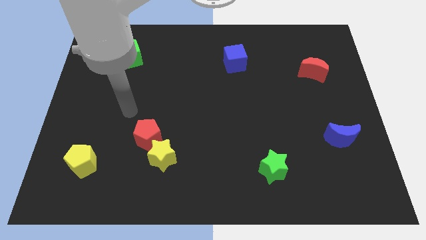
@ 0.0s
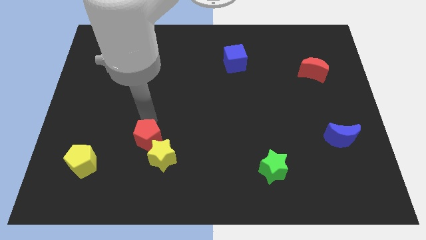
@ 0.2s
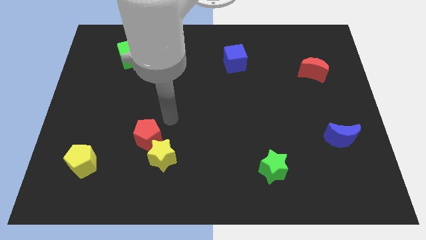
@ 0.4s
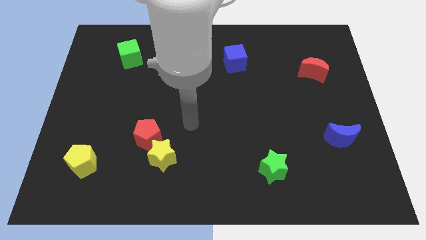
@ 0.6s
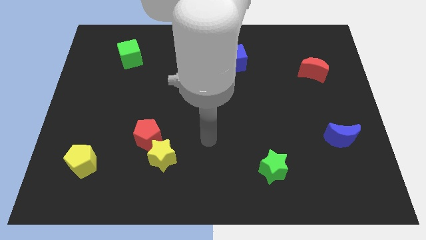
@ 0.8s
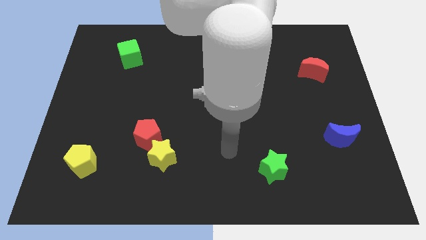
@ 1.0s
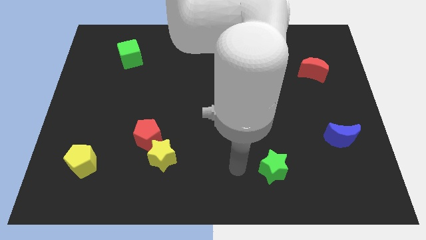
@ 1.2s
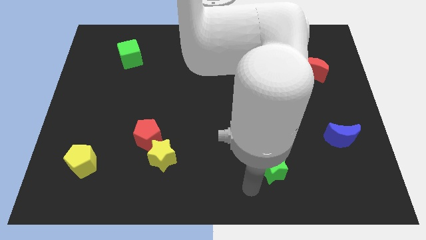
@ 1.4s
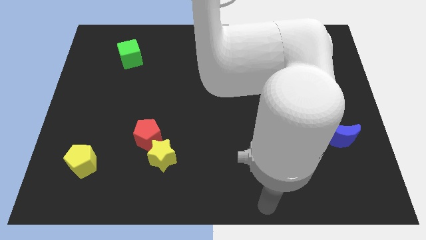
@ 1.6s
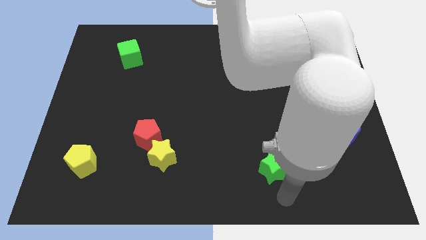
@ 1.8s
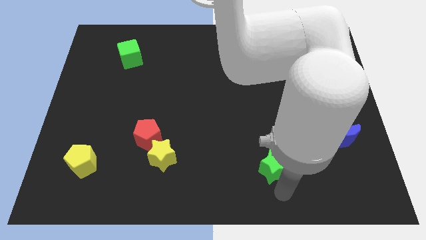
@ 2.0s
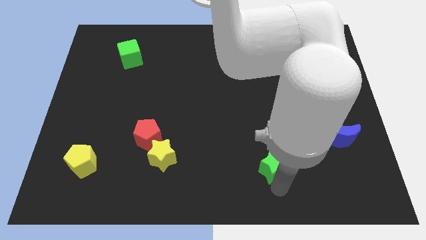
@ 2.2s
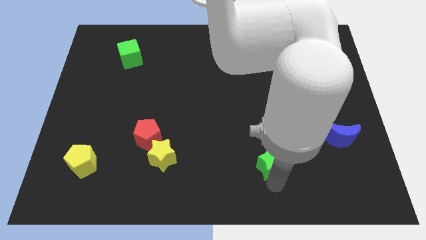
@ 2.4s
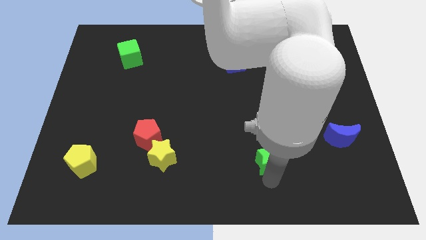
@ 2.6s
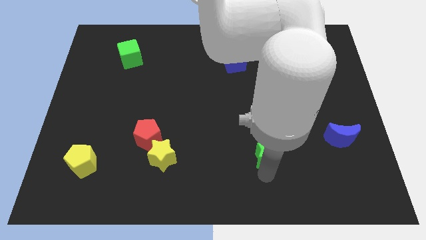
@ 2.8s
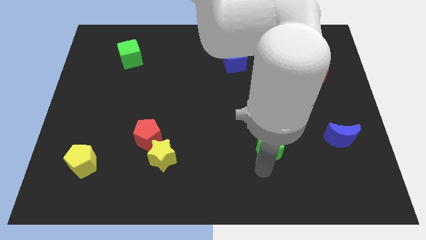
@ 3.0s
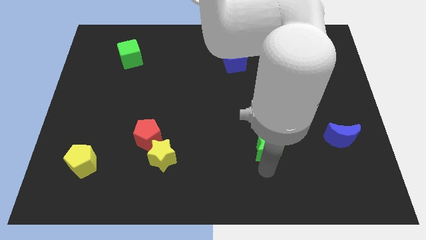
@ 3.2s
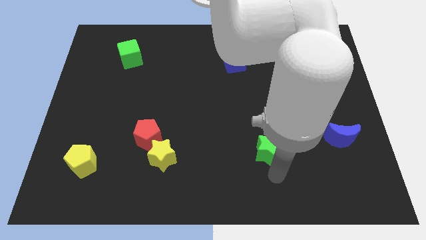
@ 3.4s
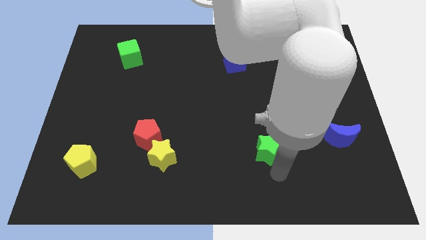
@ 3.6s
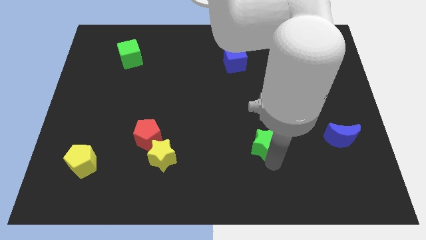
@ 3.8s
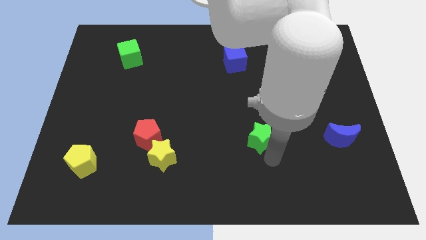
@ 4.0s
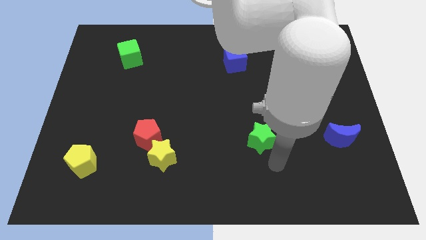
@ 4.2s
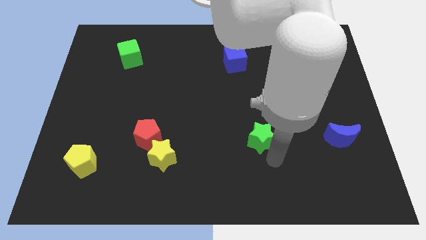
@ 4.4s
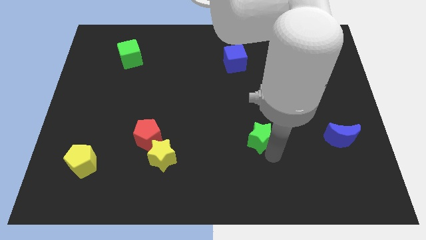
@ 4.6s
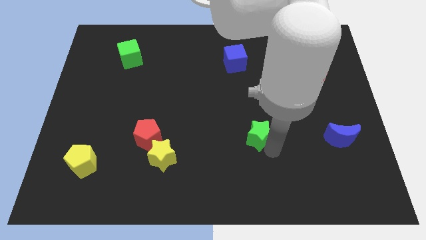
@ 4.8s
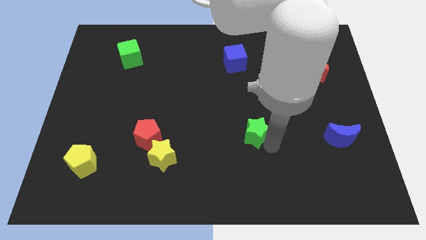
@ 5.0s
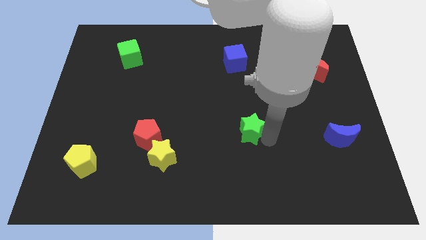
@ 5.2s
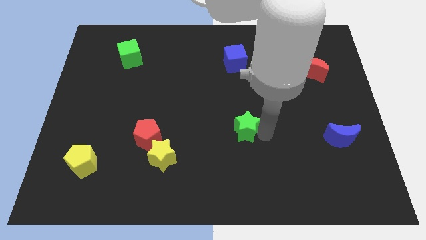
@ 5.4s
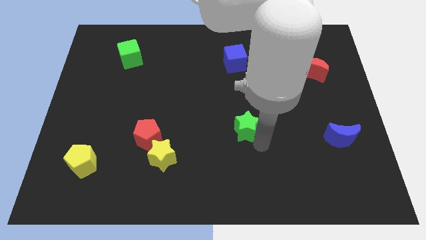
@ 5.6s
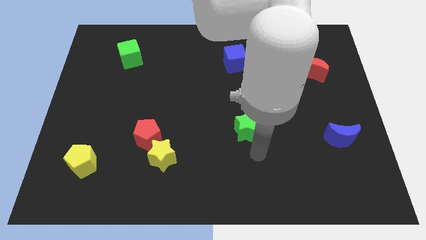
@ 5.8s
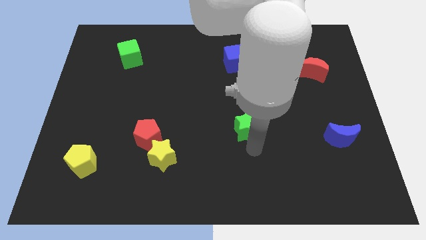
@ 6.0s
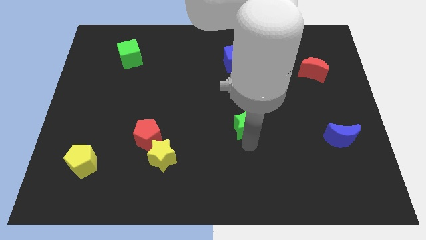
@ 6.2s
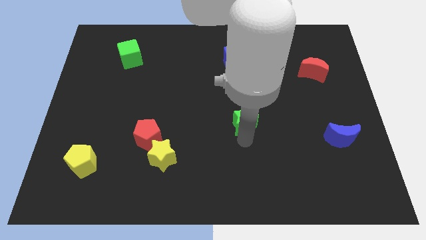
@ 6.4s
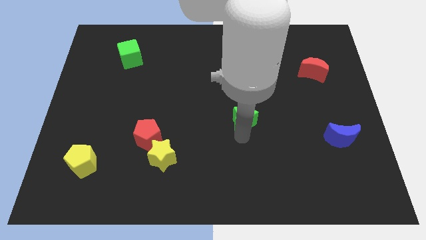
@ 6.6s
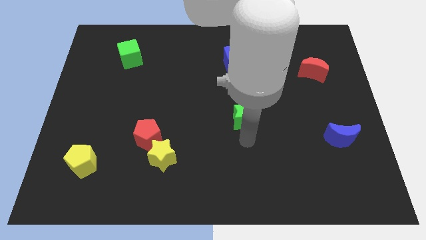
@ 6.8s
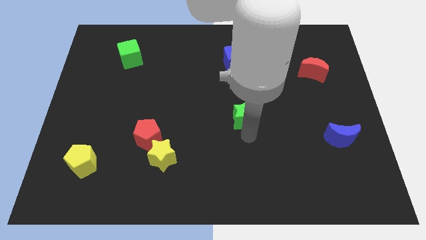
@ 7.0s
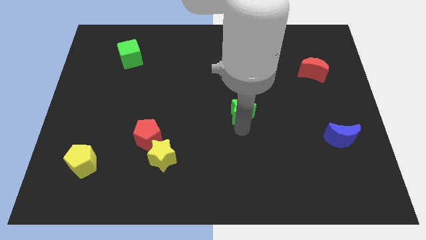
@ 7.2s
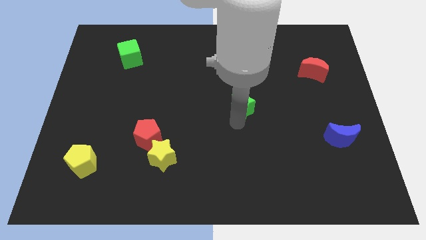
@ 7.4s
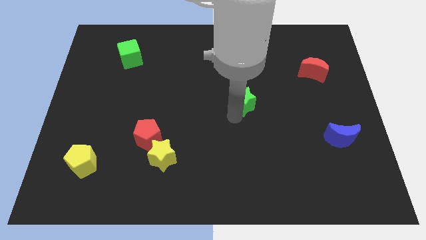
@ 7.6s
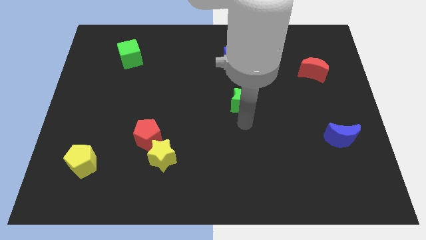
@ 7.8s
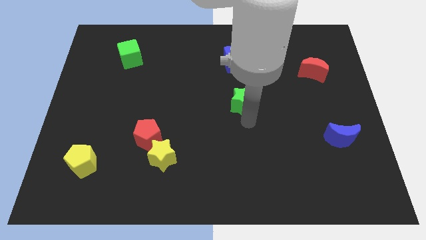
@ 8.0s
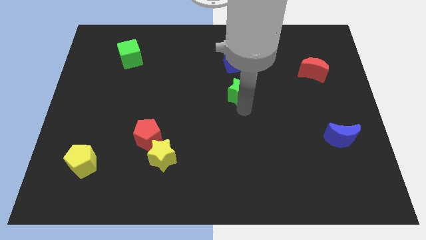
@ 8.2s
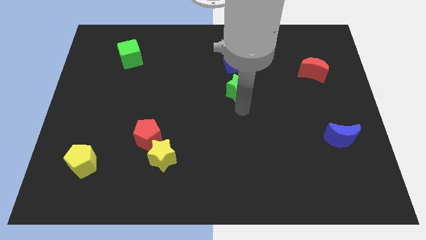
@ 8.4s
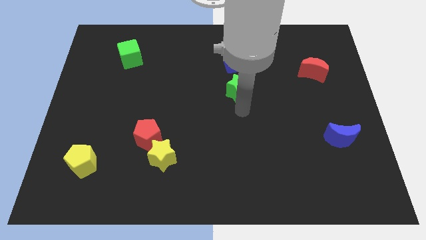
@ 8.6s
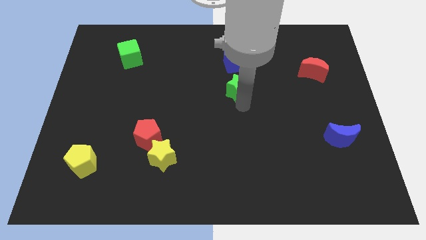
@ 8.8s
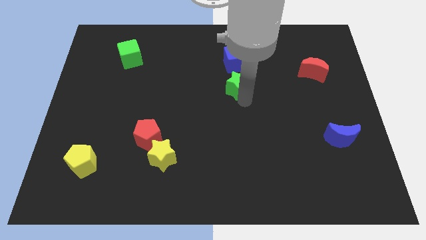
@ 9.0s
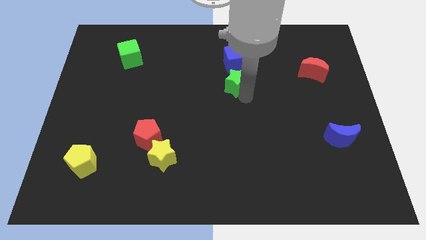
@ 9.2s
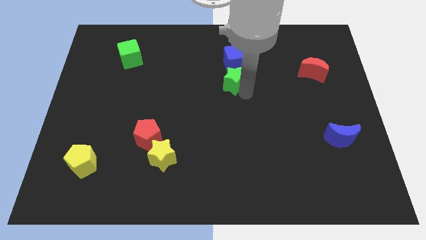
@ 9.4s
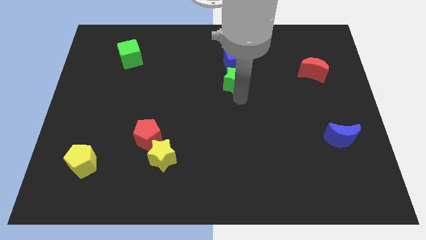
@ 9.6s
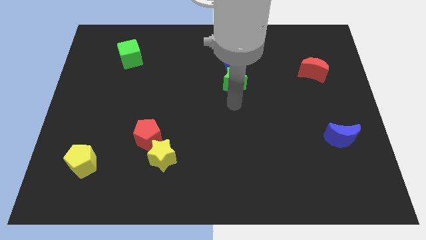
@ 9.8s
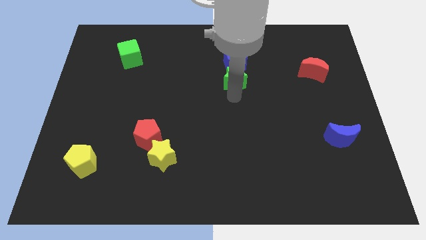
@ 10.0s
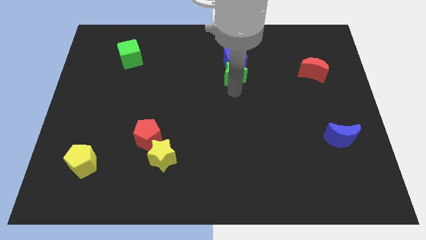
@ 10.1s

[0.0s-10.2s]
push the green star towards the blue cube

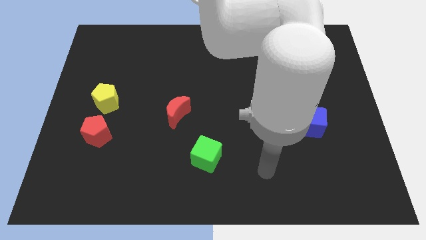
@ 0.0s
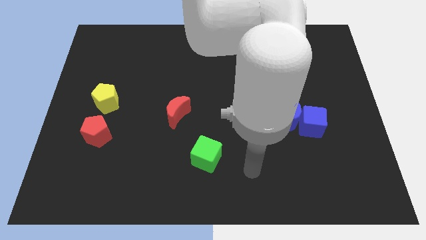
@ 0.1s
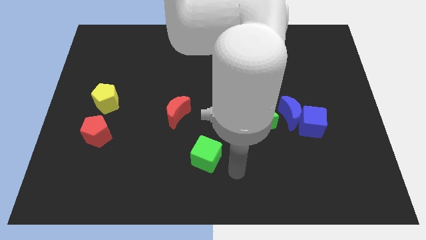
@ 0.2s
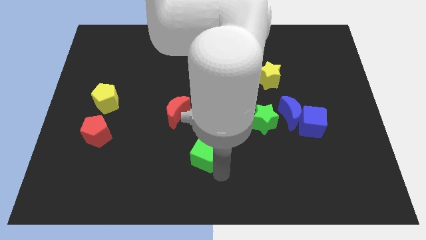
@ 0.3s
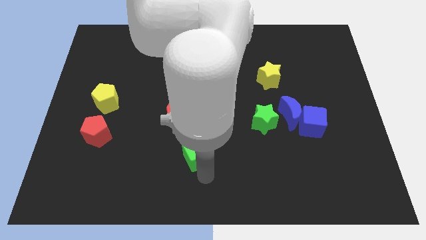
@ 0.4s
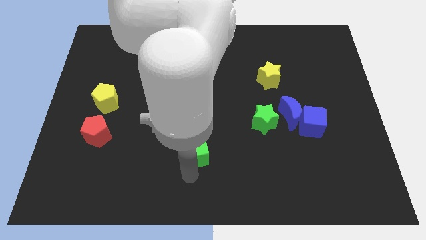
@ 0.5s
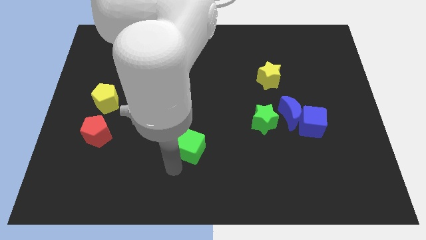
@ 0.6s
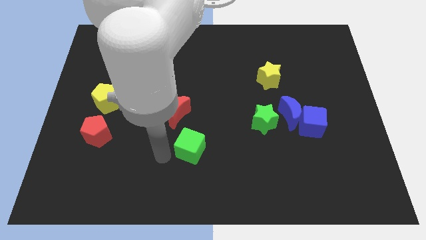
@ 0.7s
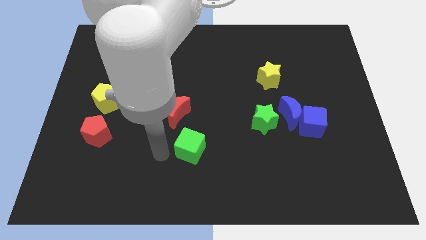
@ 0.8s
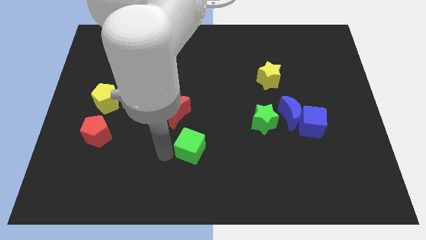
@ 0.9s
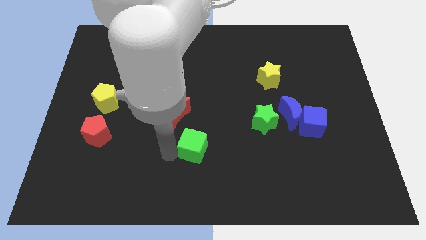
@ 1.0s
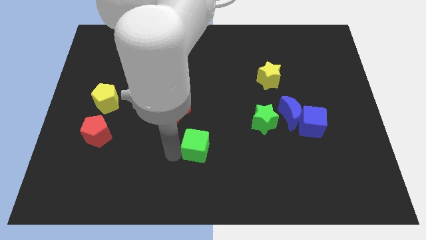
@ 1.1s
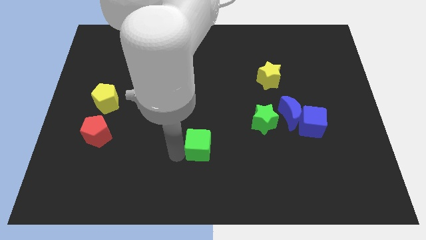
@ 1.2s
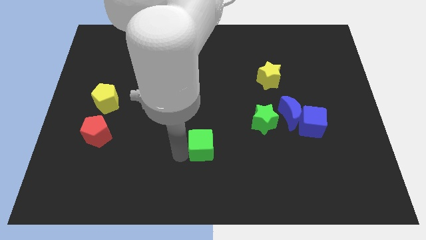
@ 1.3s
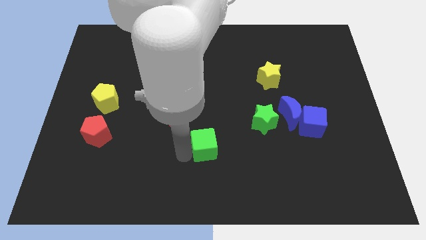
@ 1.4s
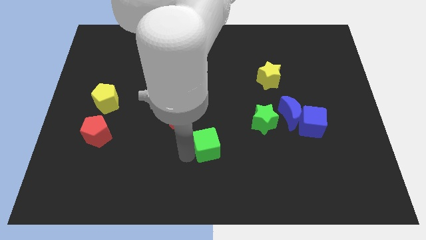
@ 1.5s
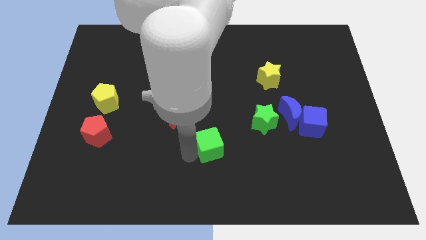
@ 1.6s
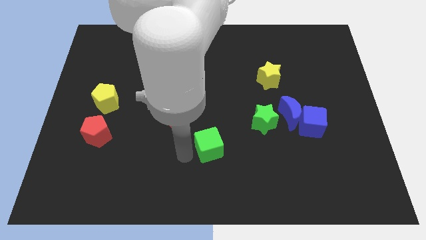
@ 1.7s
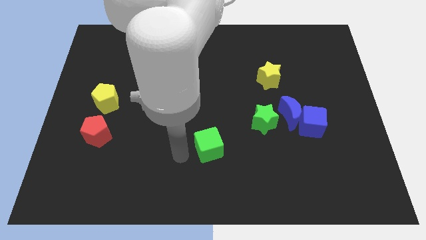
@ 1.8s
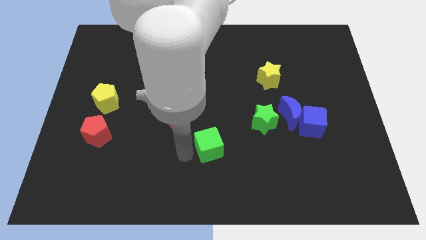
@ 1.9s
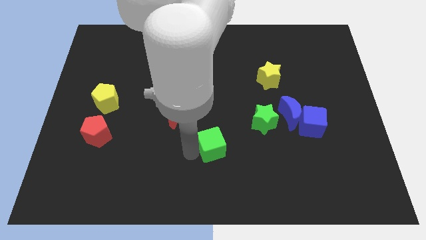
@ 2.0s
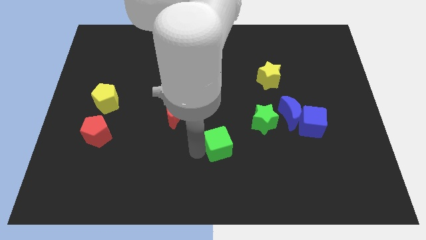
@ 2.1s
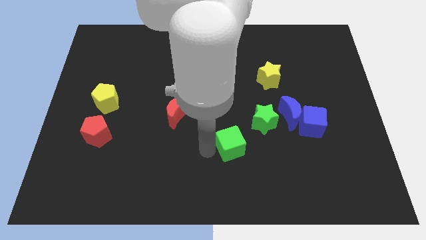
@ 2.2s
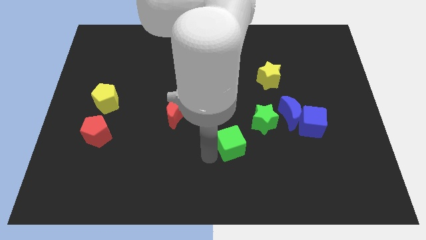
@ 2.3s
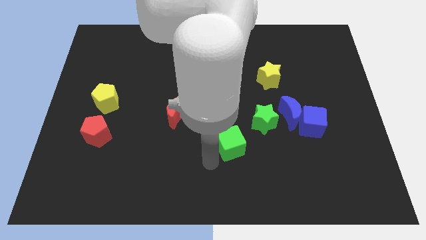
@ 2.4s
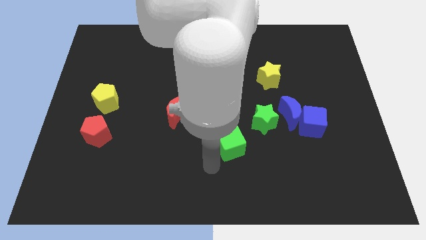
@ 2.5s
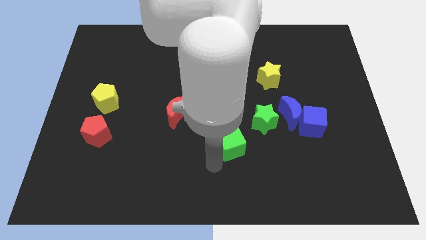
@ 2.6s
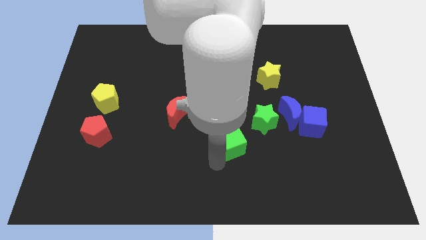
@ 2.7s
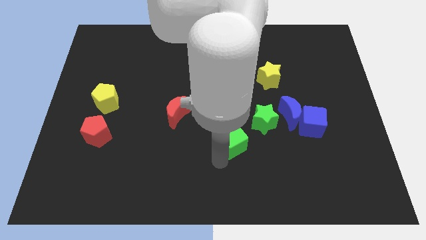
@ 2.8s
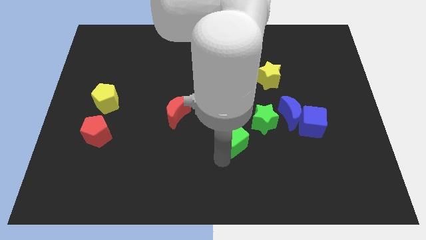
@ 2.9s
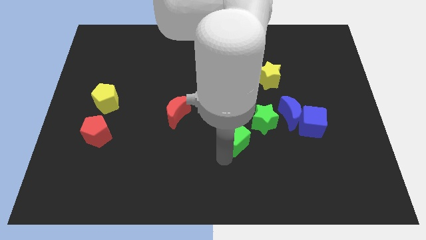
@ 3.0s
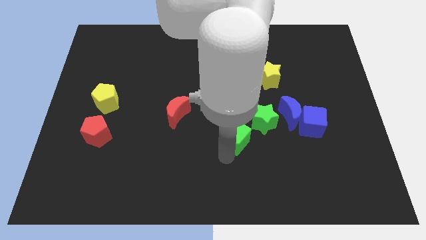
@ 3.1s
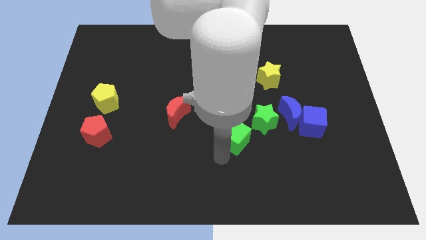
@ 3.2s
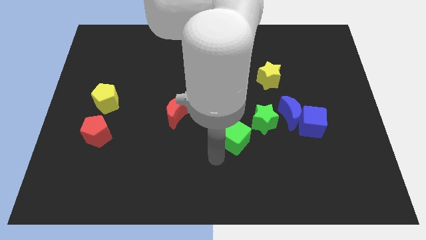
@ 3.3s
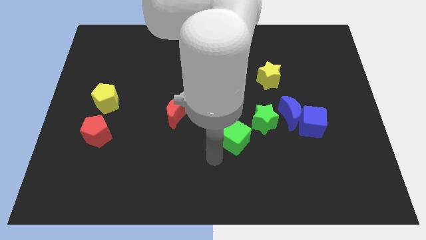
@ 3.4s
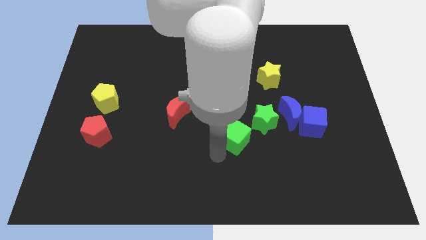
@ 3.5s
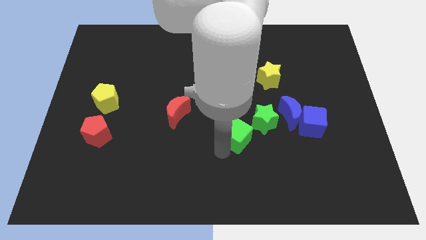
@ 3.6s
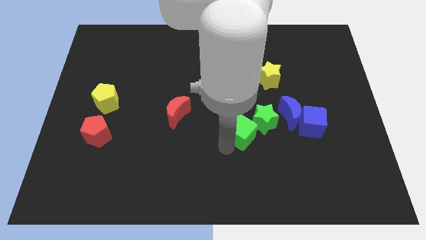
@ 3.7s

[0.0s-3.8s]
push the green cube towards the green star
